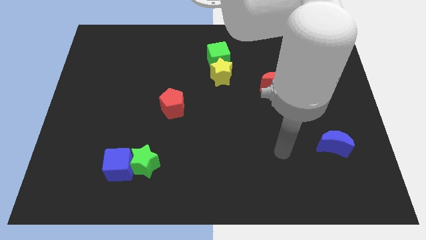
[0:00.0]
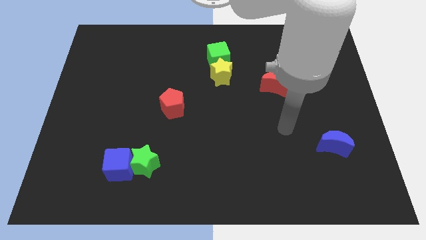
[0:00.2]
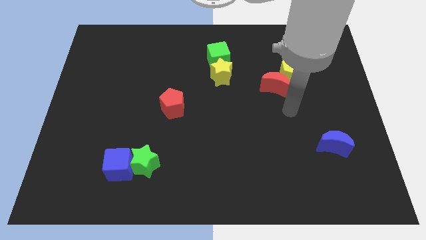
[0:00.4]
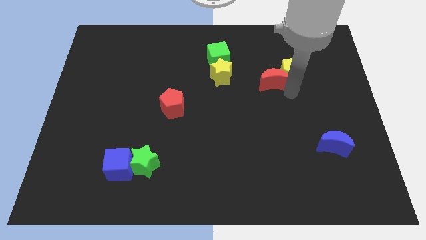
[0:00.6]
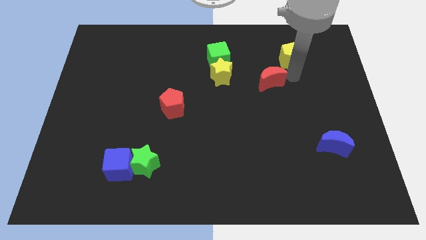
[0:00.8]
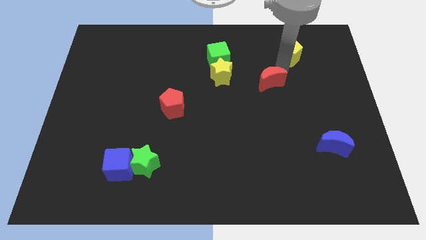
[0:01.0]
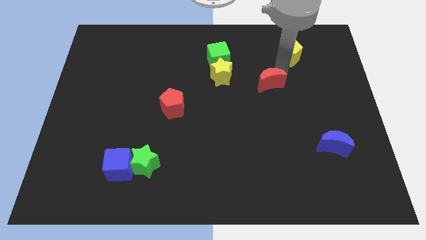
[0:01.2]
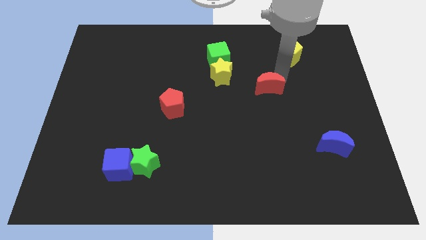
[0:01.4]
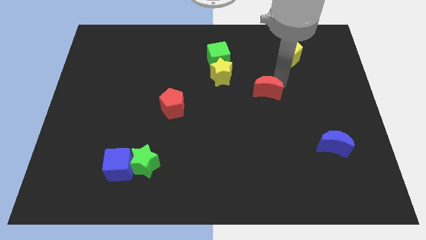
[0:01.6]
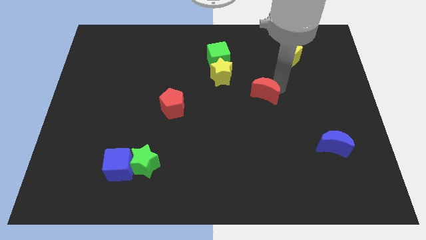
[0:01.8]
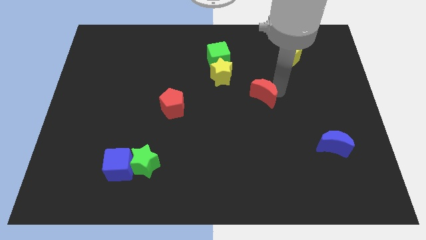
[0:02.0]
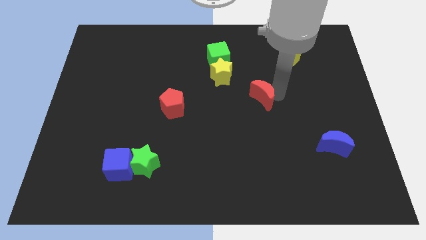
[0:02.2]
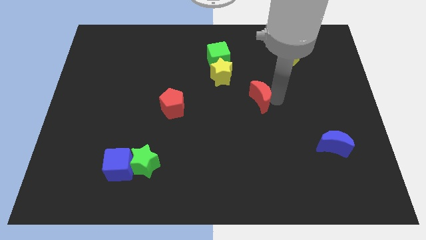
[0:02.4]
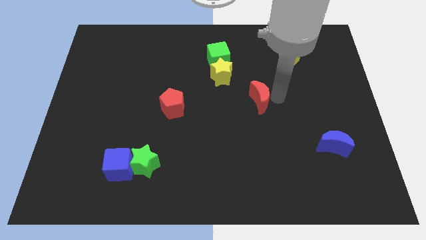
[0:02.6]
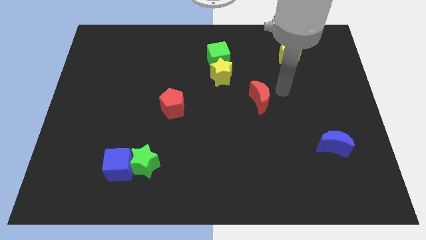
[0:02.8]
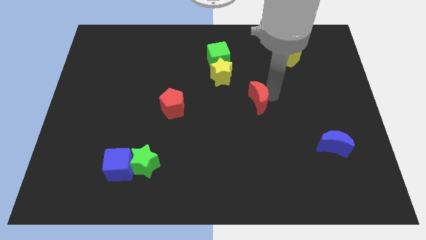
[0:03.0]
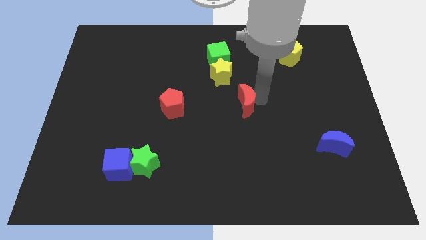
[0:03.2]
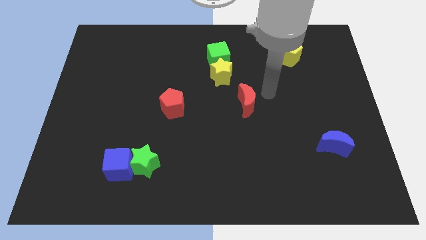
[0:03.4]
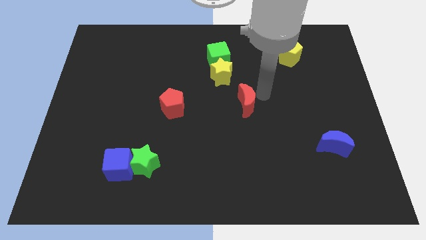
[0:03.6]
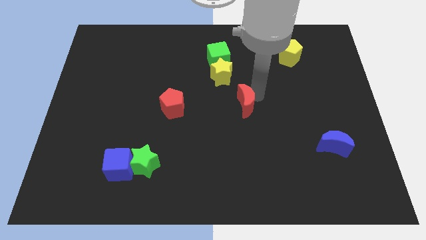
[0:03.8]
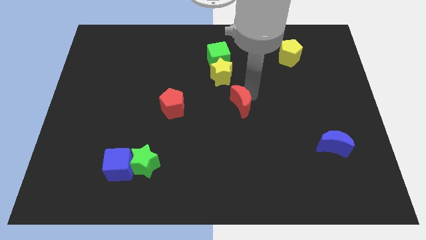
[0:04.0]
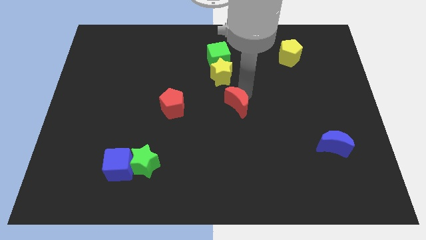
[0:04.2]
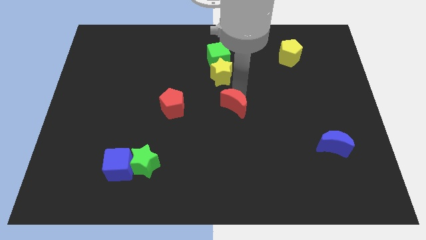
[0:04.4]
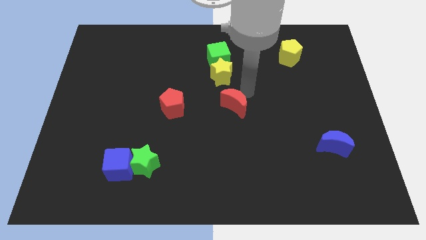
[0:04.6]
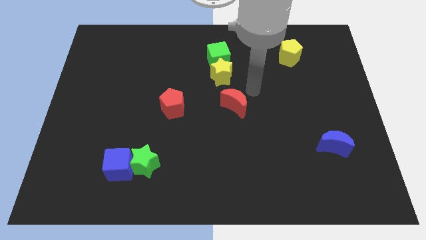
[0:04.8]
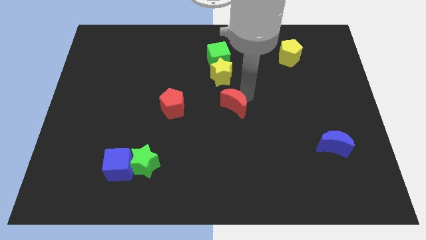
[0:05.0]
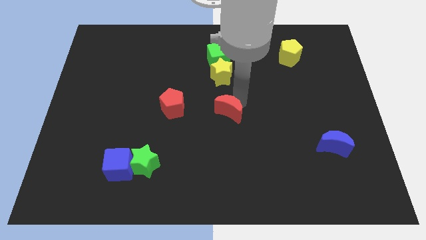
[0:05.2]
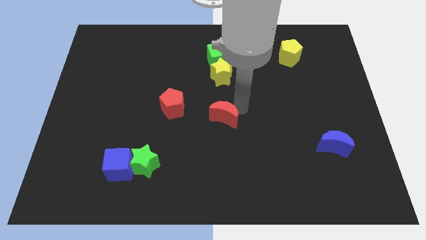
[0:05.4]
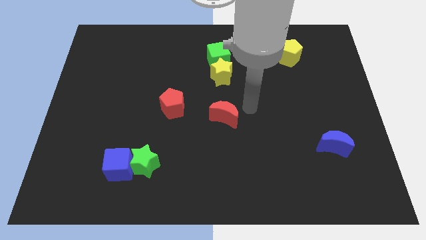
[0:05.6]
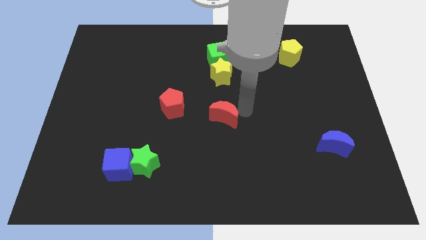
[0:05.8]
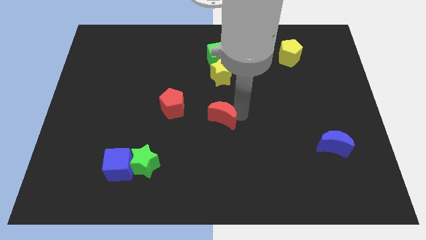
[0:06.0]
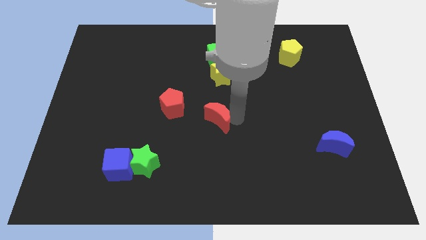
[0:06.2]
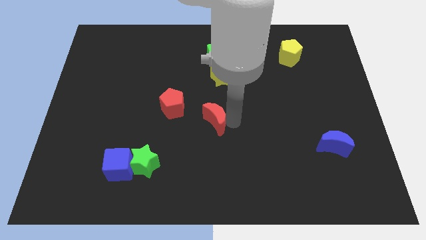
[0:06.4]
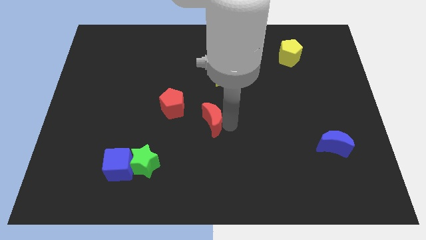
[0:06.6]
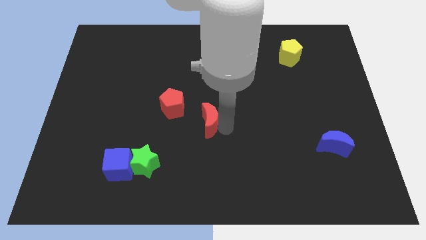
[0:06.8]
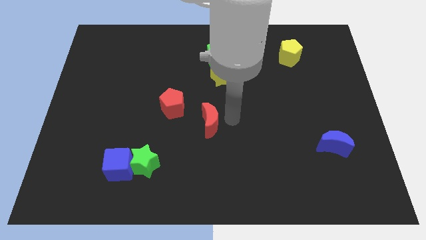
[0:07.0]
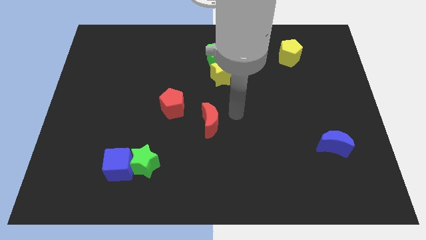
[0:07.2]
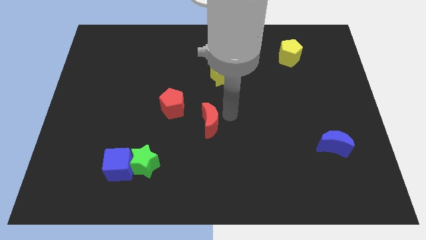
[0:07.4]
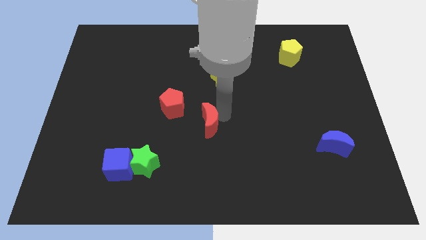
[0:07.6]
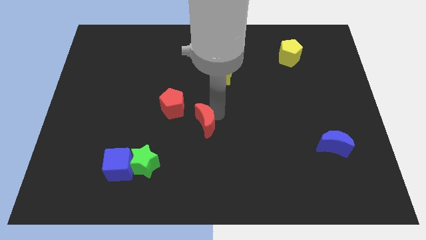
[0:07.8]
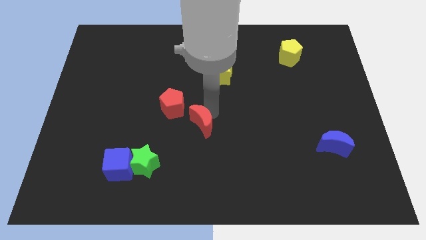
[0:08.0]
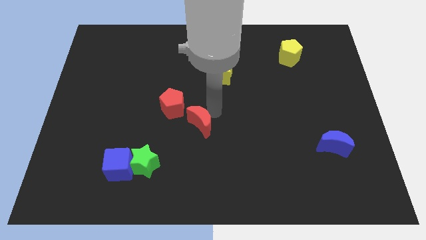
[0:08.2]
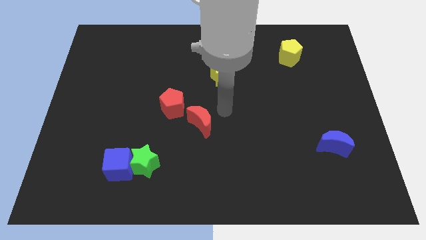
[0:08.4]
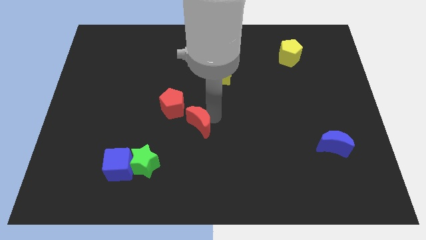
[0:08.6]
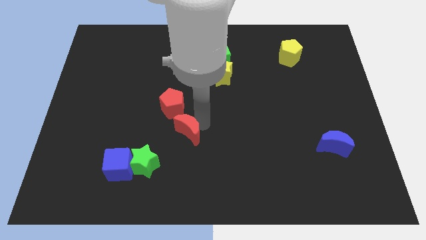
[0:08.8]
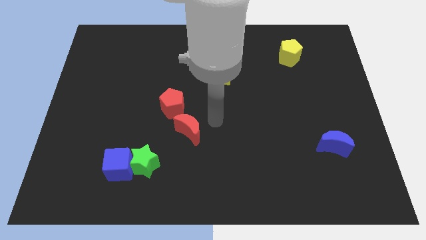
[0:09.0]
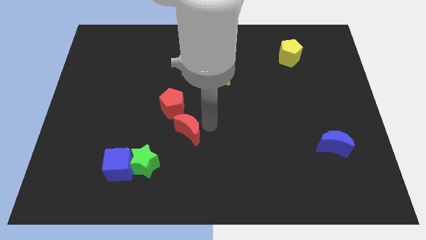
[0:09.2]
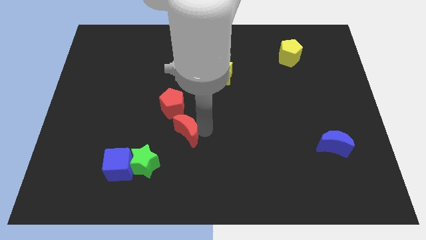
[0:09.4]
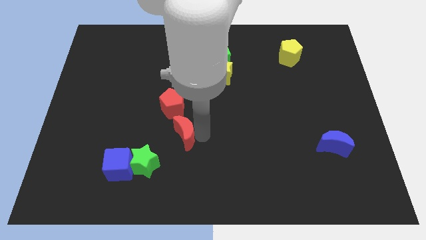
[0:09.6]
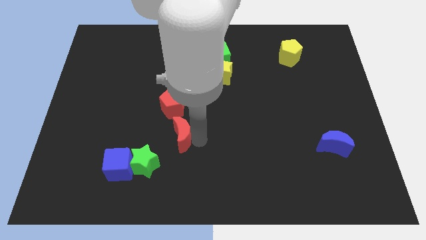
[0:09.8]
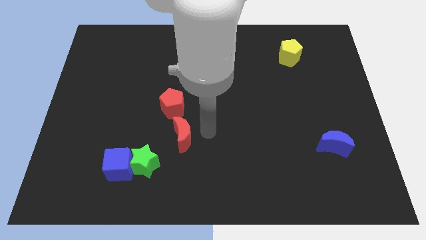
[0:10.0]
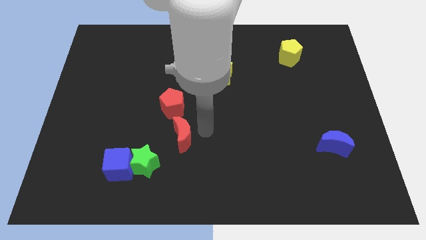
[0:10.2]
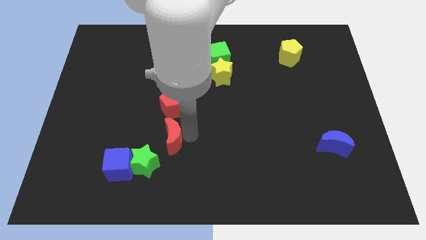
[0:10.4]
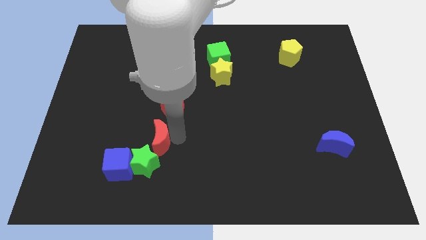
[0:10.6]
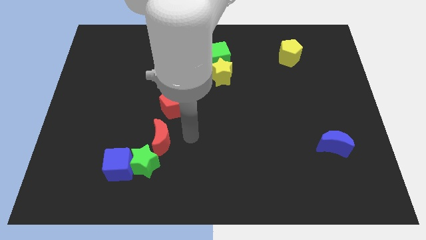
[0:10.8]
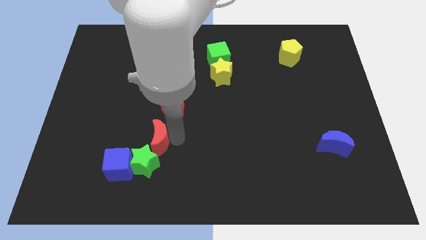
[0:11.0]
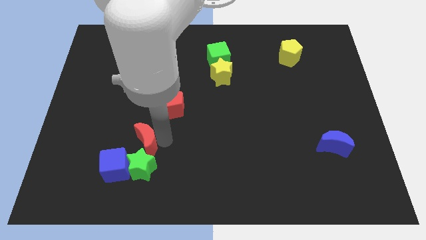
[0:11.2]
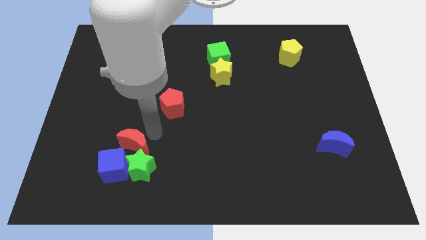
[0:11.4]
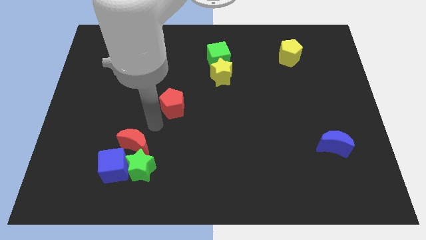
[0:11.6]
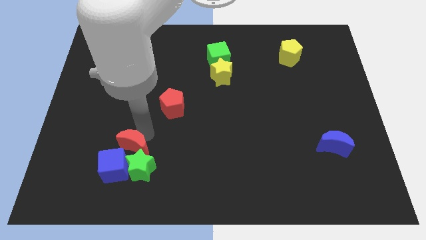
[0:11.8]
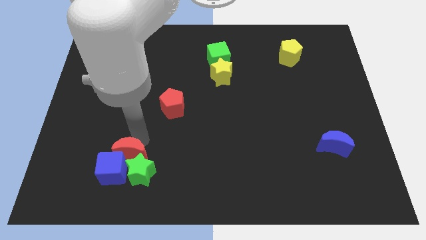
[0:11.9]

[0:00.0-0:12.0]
slide the red moon towards the blue cube

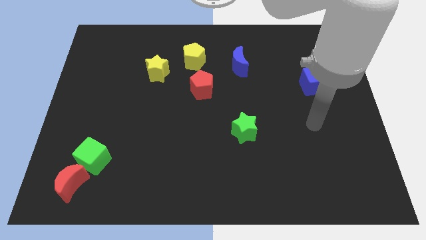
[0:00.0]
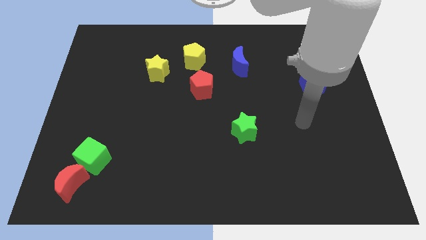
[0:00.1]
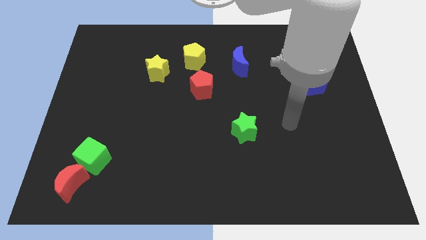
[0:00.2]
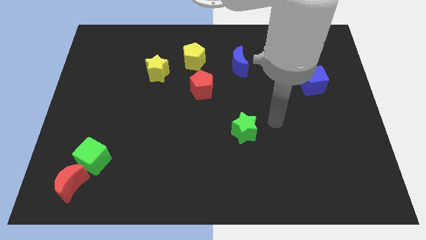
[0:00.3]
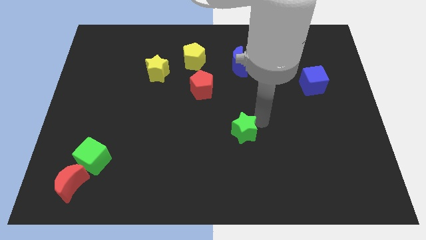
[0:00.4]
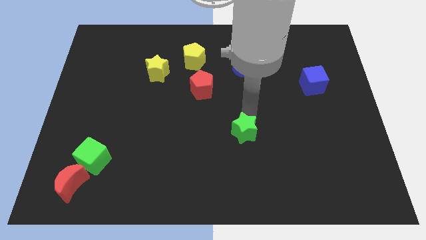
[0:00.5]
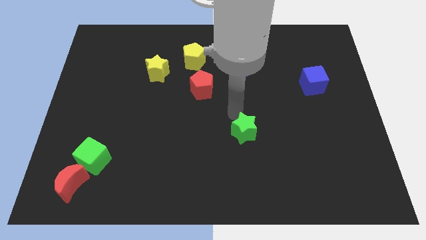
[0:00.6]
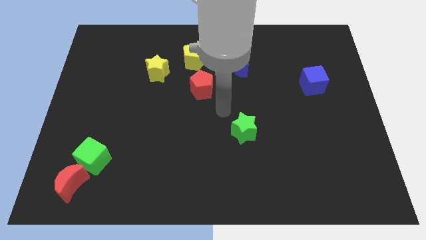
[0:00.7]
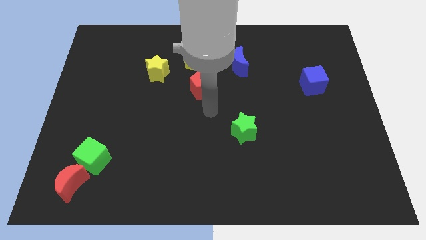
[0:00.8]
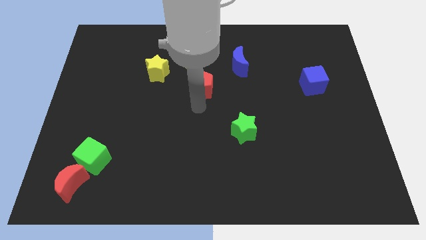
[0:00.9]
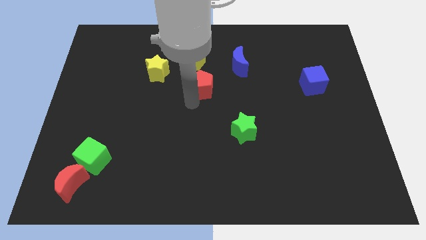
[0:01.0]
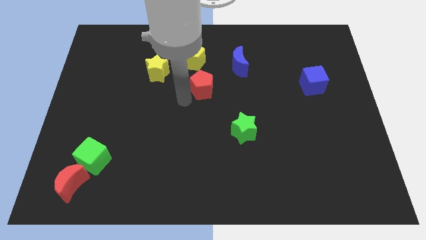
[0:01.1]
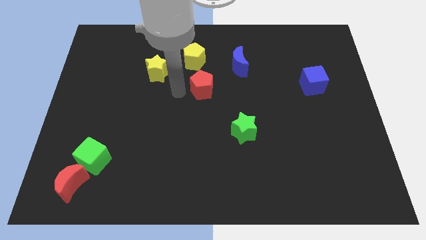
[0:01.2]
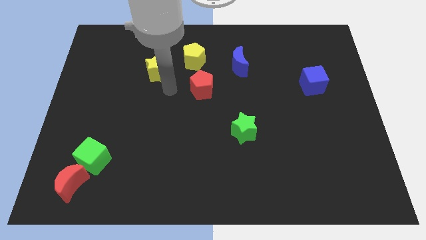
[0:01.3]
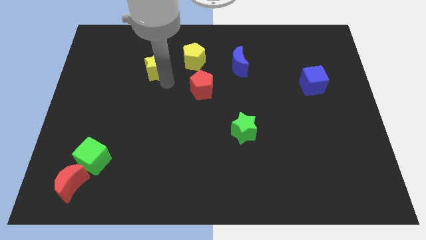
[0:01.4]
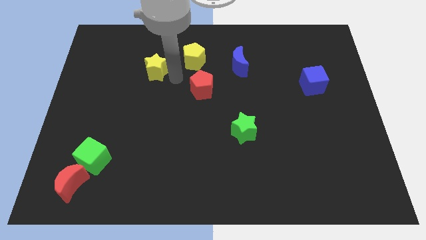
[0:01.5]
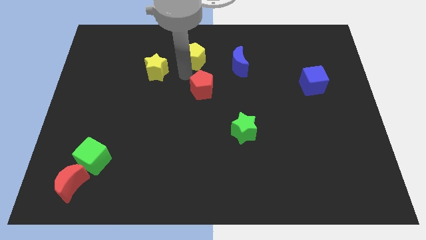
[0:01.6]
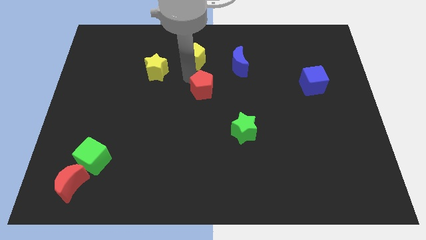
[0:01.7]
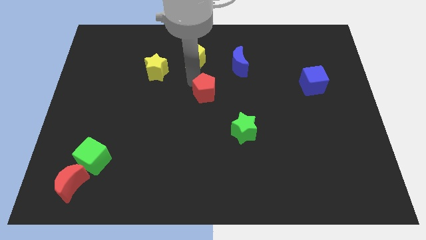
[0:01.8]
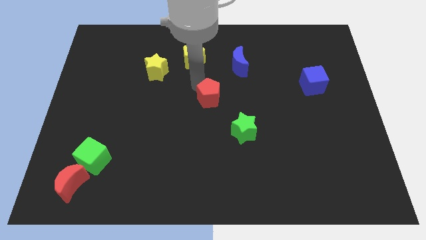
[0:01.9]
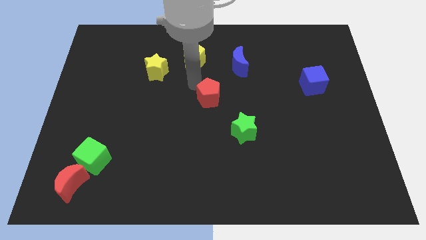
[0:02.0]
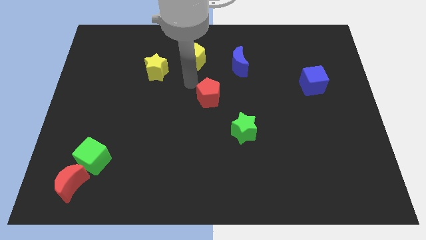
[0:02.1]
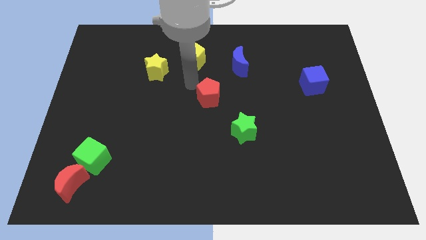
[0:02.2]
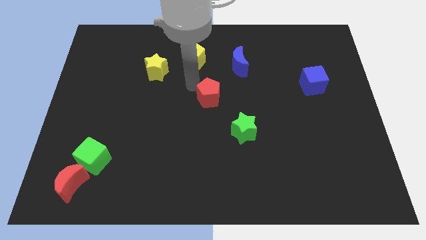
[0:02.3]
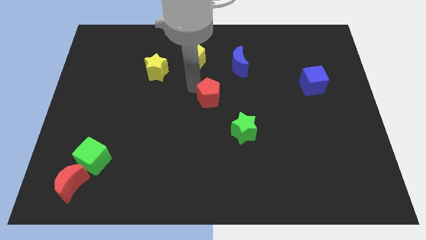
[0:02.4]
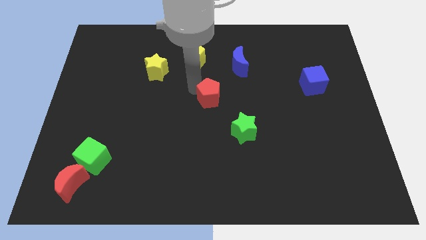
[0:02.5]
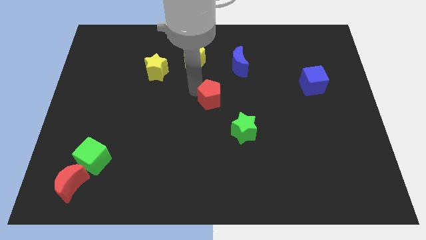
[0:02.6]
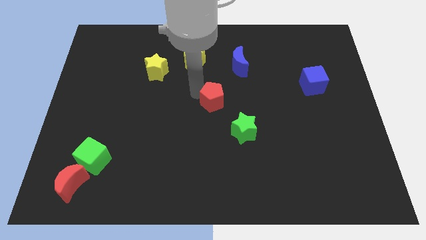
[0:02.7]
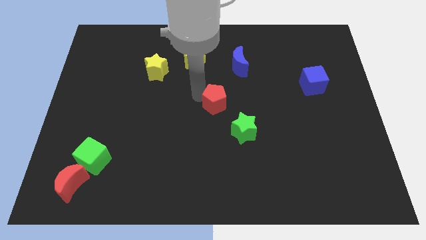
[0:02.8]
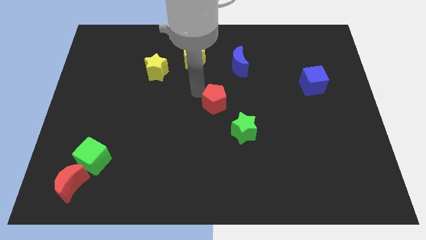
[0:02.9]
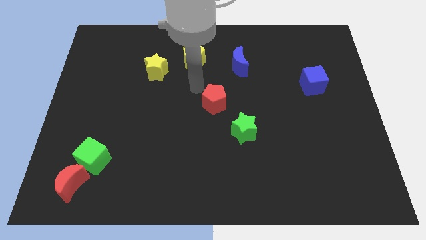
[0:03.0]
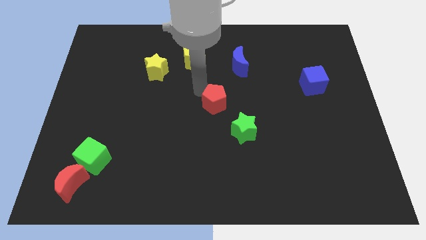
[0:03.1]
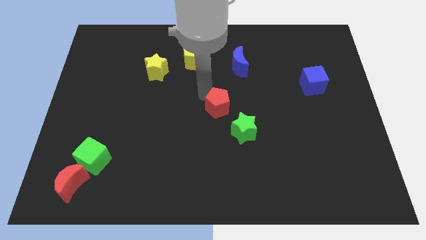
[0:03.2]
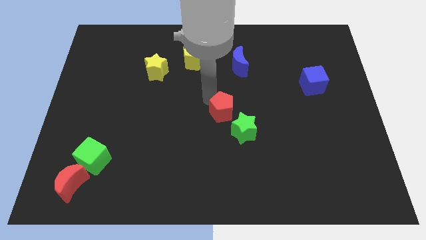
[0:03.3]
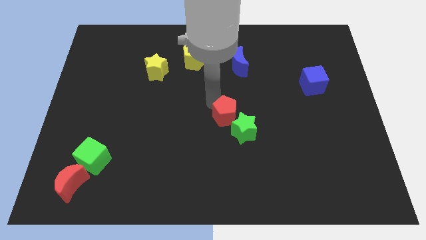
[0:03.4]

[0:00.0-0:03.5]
put the red pentagon towards the green star
